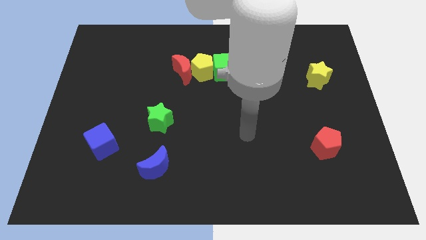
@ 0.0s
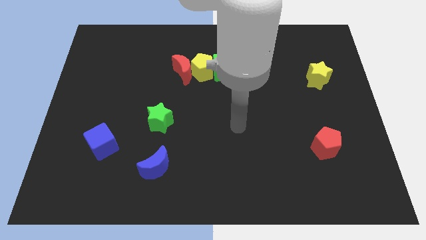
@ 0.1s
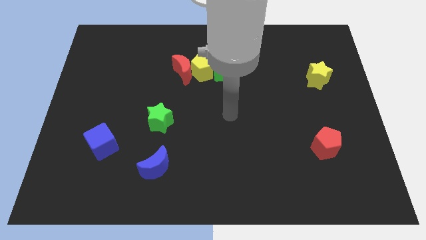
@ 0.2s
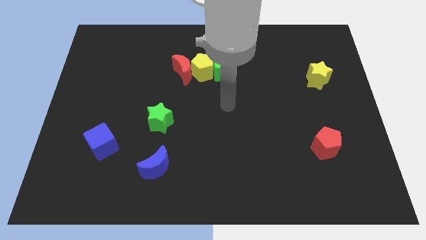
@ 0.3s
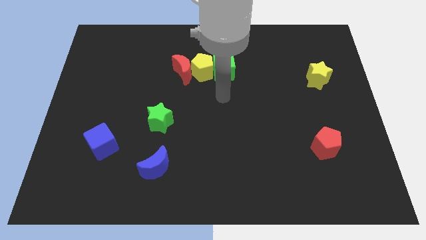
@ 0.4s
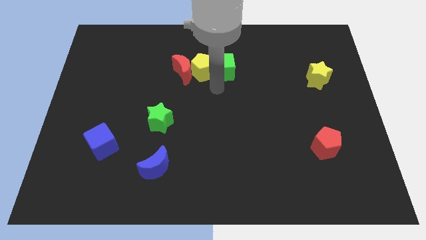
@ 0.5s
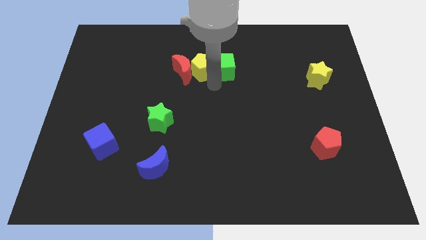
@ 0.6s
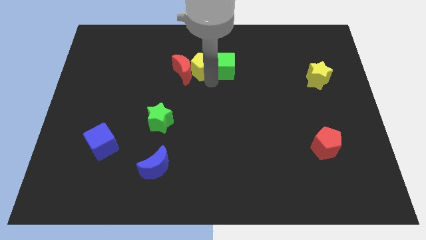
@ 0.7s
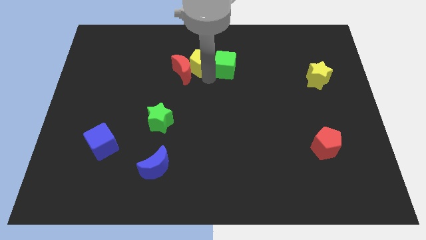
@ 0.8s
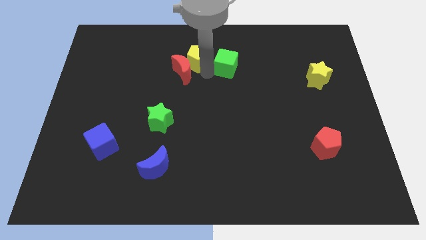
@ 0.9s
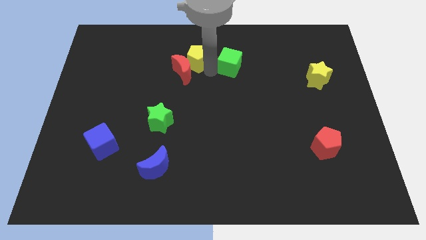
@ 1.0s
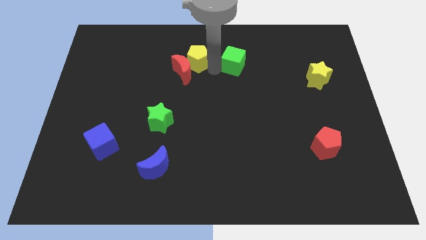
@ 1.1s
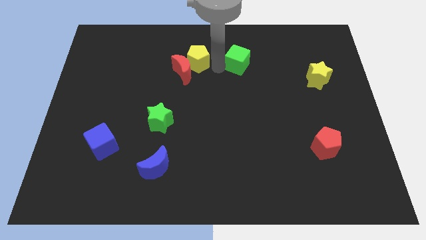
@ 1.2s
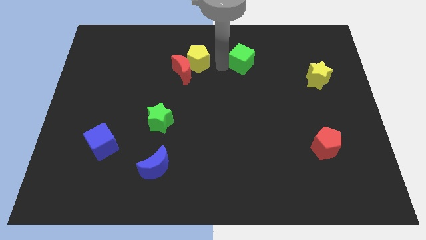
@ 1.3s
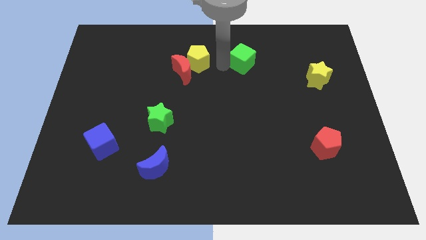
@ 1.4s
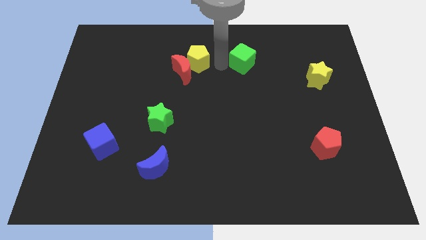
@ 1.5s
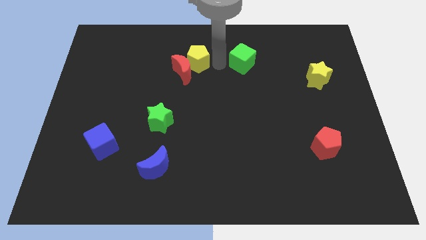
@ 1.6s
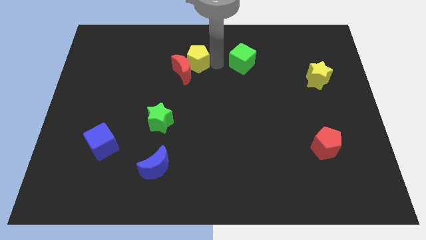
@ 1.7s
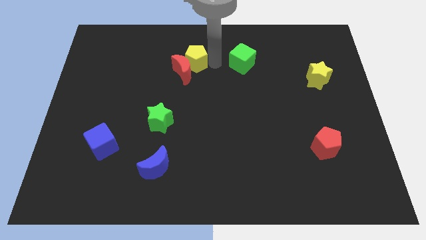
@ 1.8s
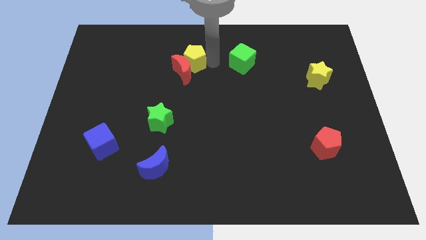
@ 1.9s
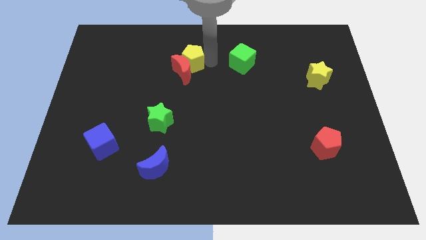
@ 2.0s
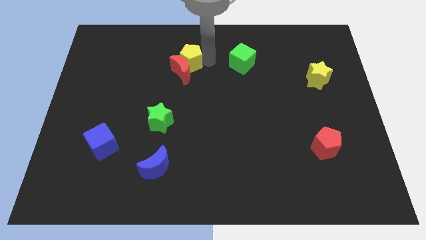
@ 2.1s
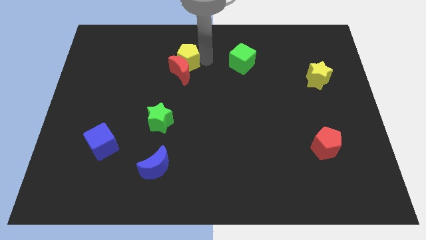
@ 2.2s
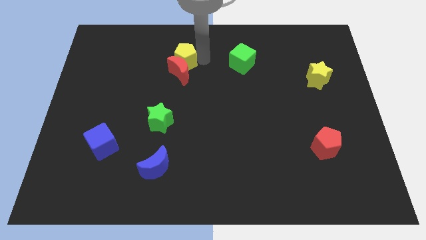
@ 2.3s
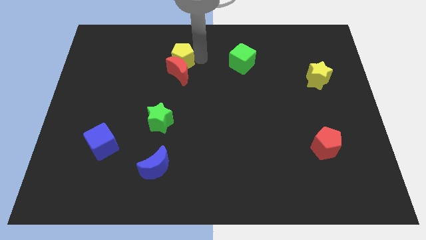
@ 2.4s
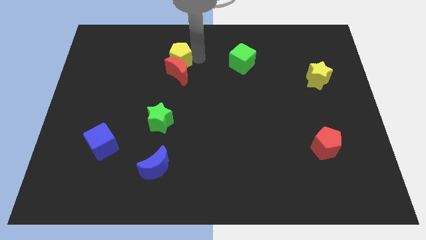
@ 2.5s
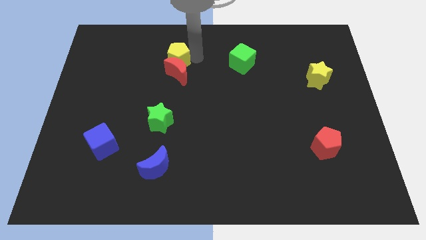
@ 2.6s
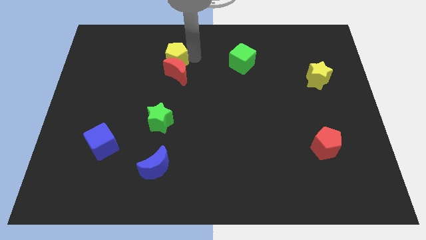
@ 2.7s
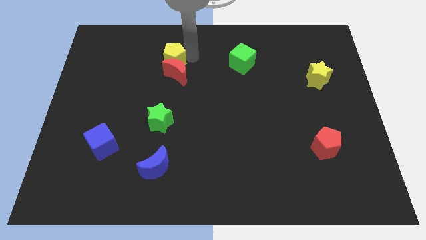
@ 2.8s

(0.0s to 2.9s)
move the yellow pentagon away from the red moon and green cube

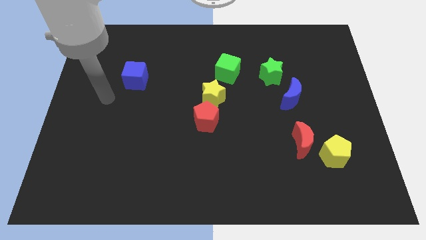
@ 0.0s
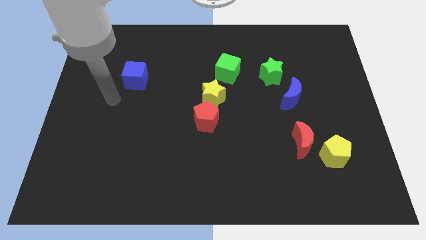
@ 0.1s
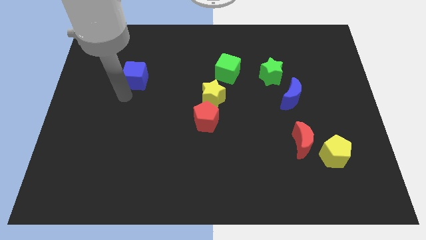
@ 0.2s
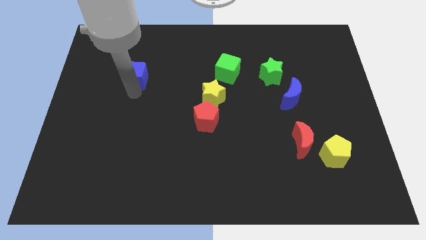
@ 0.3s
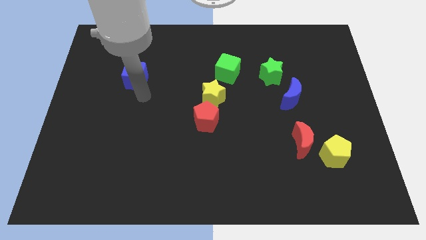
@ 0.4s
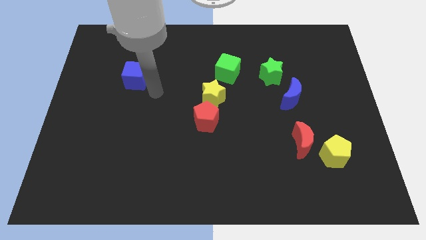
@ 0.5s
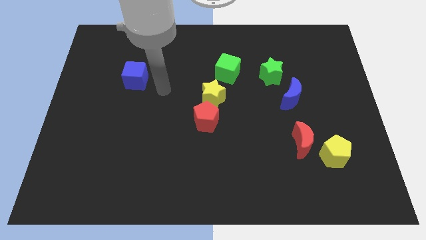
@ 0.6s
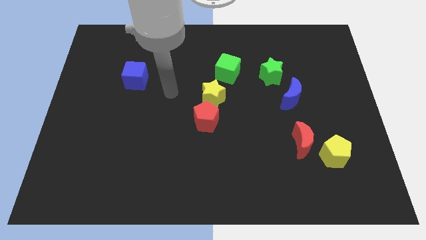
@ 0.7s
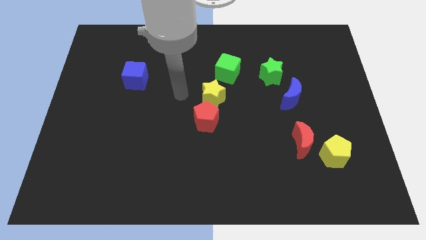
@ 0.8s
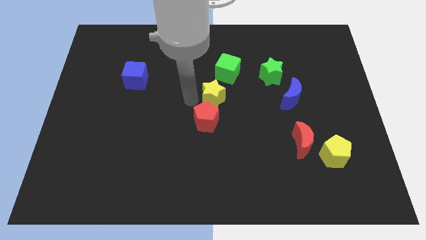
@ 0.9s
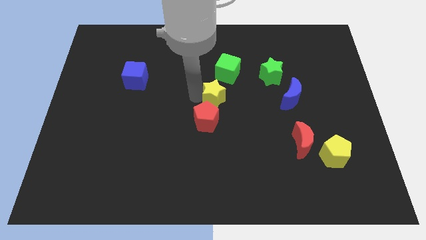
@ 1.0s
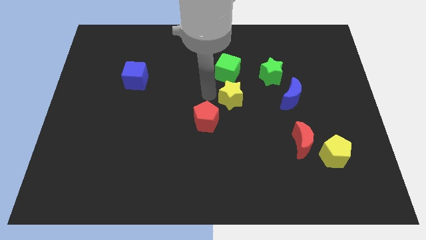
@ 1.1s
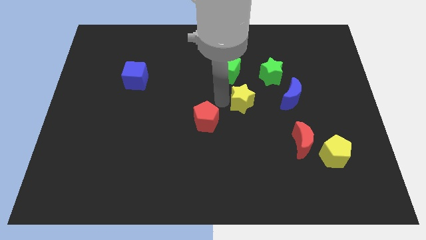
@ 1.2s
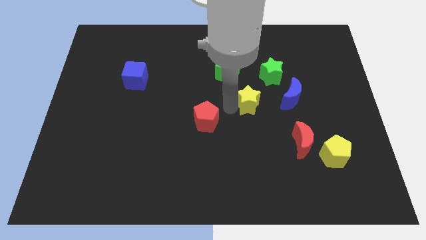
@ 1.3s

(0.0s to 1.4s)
pull the red pentagon apart from the yellow star

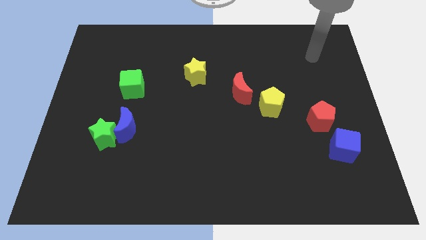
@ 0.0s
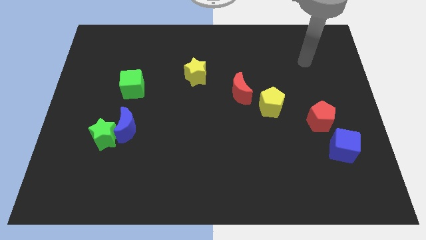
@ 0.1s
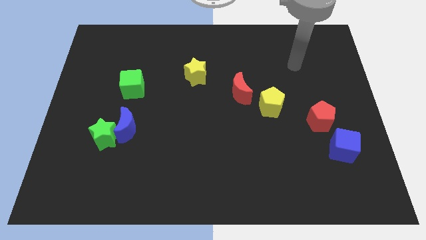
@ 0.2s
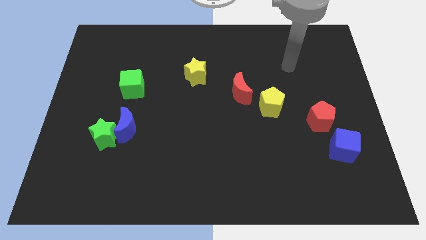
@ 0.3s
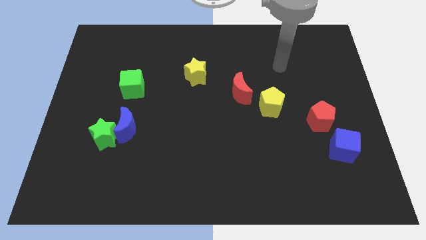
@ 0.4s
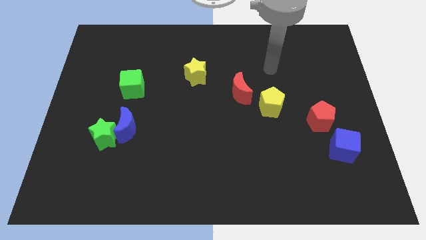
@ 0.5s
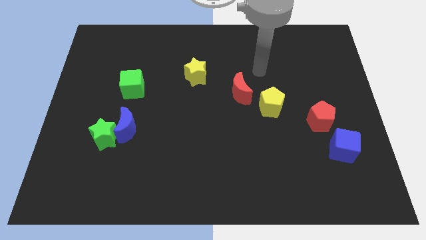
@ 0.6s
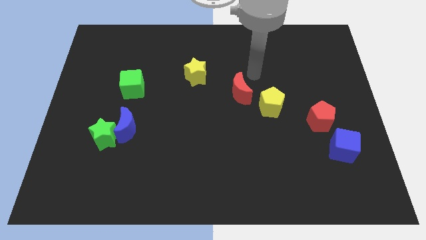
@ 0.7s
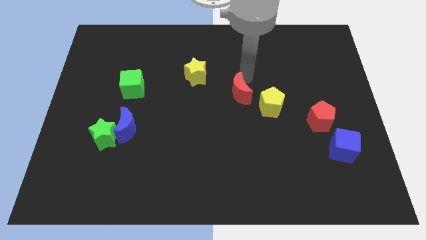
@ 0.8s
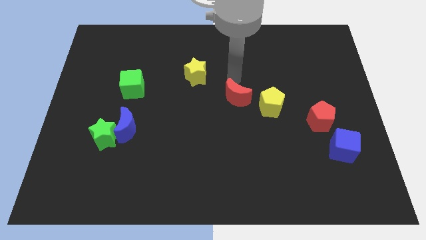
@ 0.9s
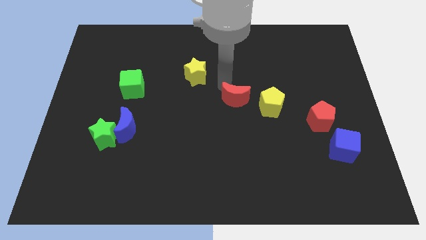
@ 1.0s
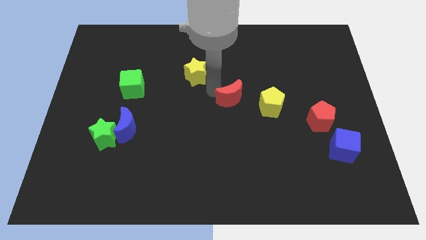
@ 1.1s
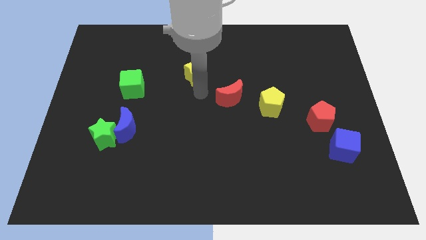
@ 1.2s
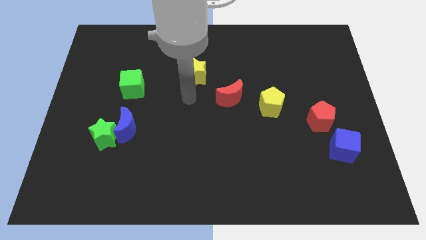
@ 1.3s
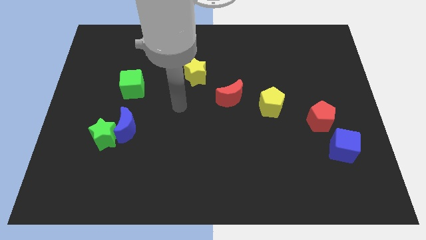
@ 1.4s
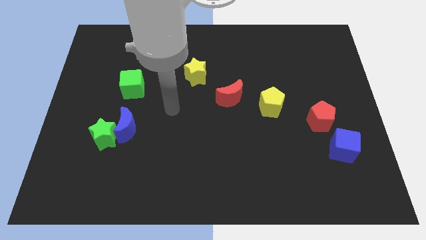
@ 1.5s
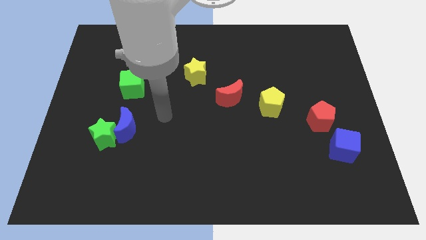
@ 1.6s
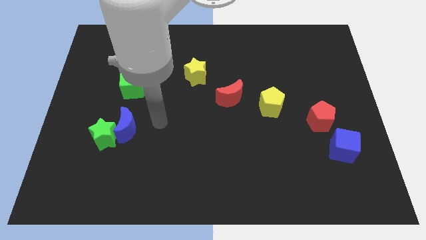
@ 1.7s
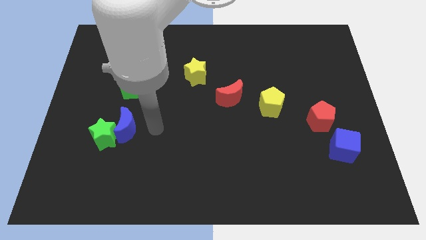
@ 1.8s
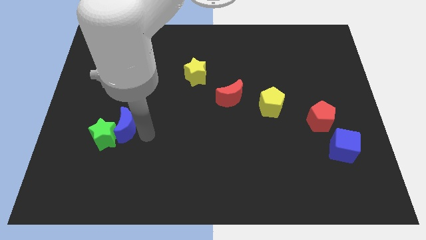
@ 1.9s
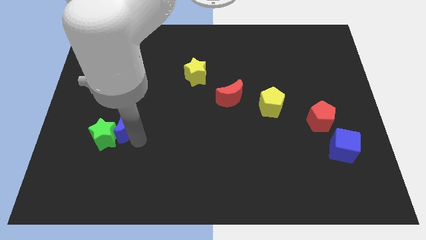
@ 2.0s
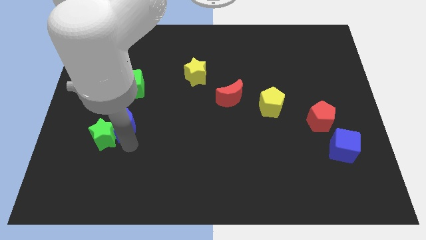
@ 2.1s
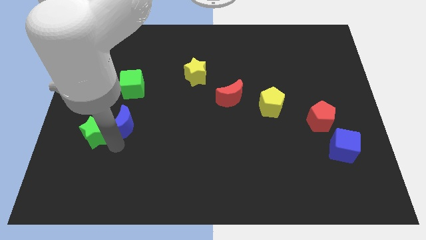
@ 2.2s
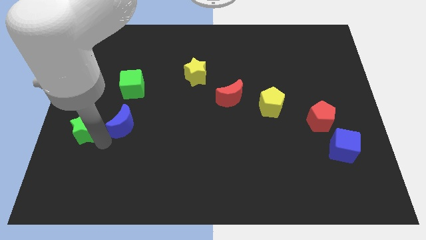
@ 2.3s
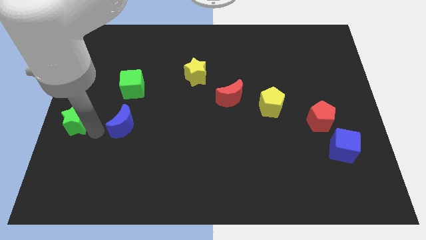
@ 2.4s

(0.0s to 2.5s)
separate the blue moon from the green star

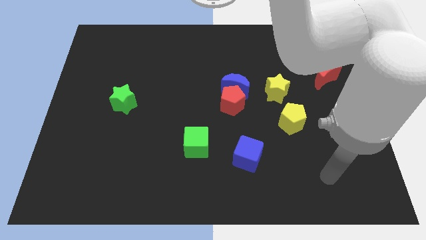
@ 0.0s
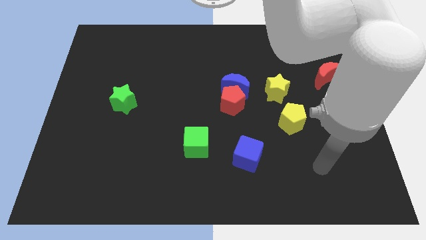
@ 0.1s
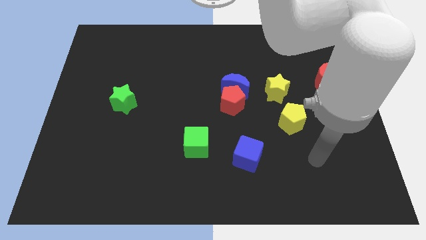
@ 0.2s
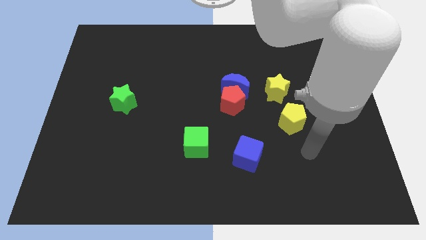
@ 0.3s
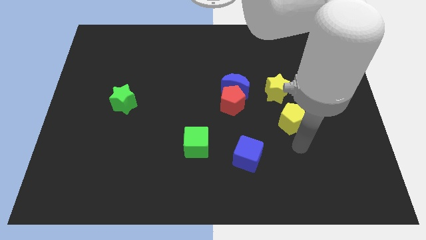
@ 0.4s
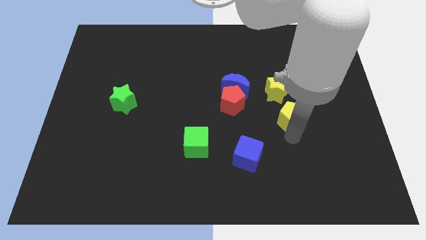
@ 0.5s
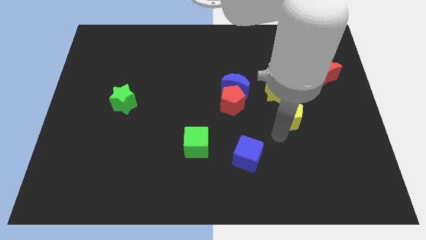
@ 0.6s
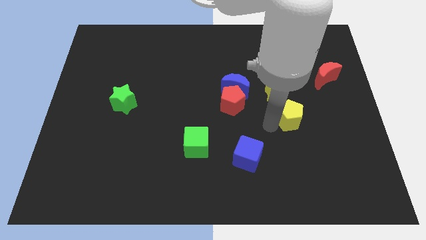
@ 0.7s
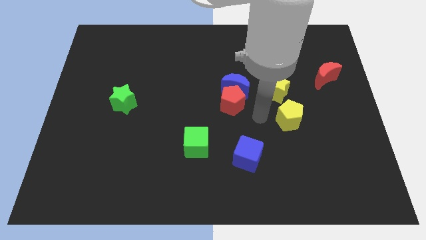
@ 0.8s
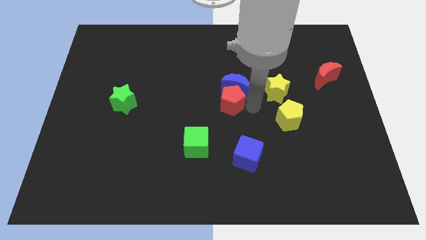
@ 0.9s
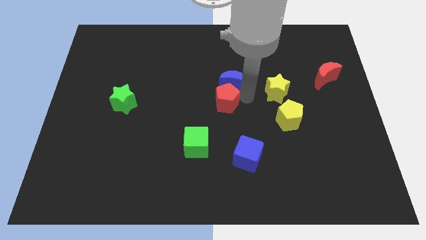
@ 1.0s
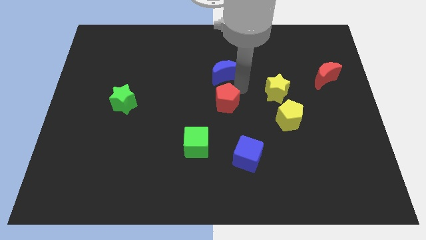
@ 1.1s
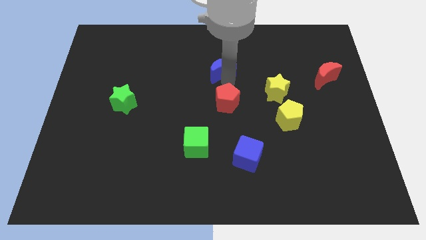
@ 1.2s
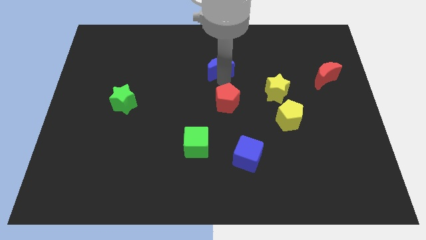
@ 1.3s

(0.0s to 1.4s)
separate the red pentagon from the blue moon

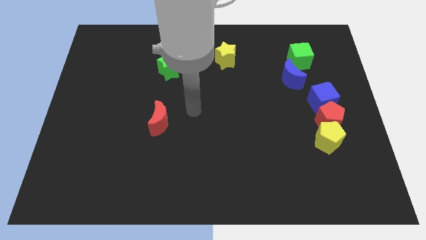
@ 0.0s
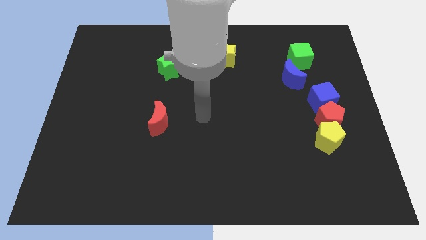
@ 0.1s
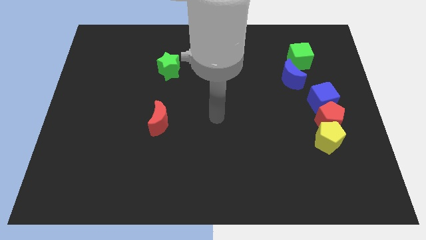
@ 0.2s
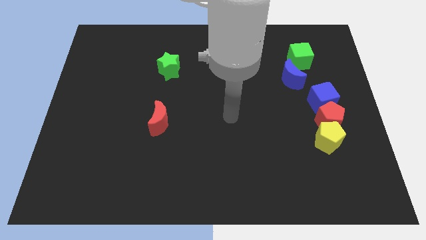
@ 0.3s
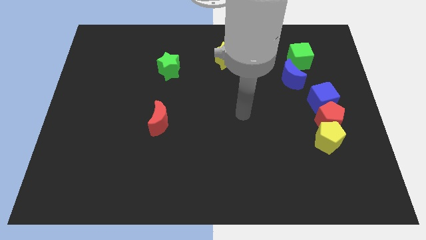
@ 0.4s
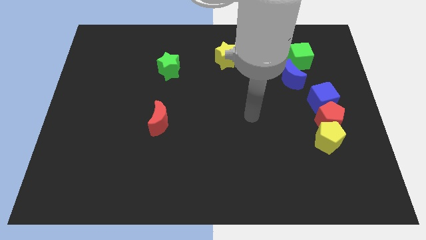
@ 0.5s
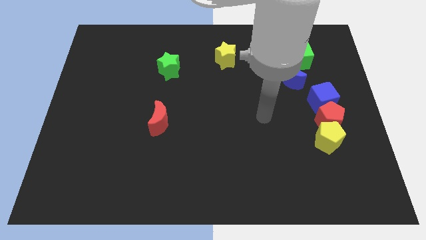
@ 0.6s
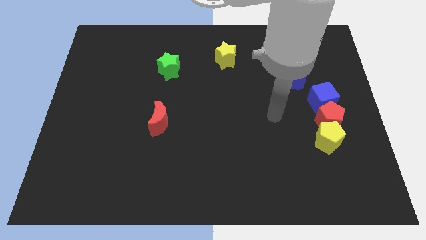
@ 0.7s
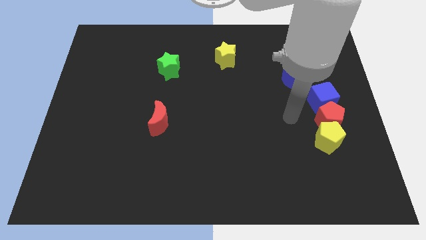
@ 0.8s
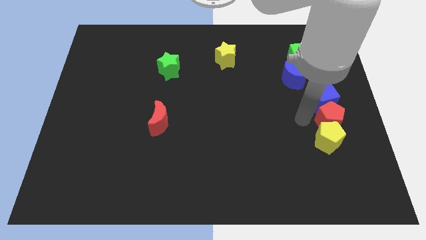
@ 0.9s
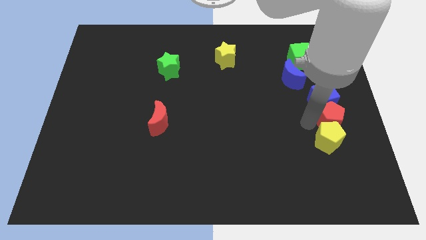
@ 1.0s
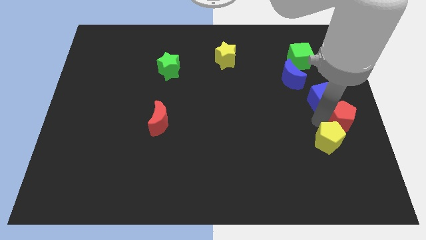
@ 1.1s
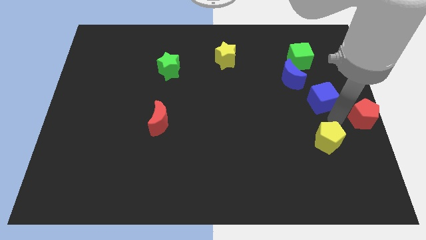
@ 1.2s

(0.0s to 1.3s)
pull the yellow pentagon apart from the red pentagon
